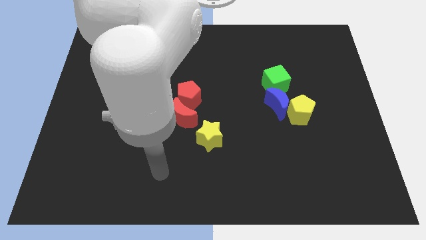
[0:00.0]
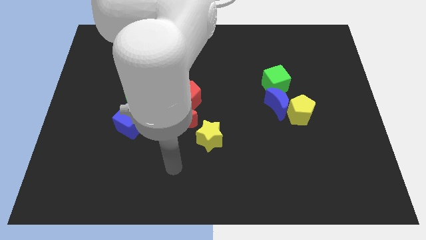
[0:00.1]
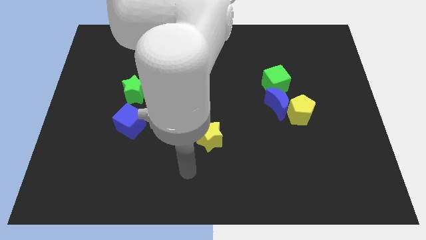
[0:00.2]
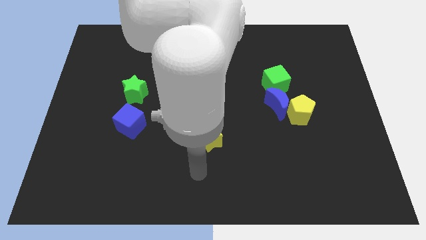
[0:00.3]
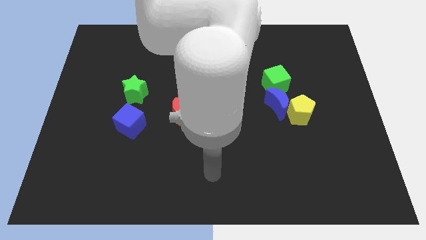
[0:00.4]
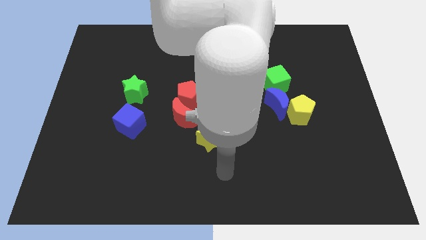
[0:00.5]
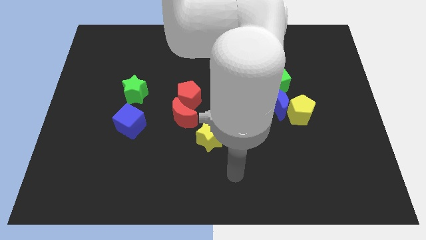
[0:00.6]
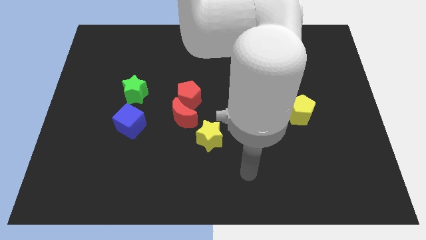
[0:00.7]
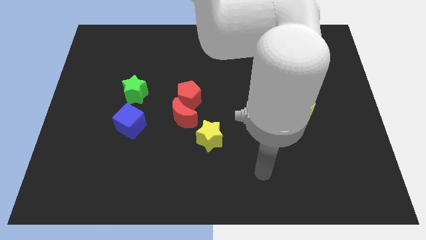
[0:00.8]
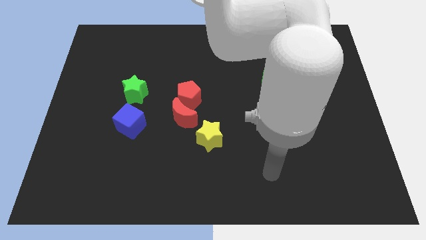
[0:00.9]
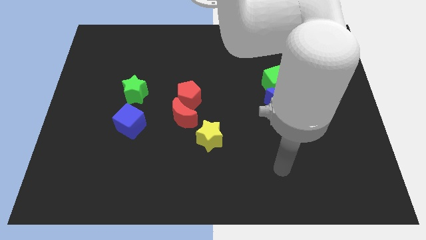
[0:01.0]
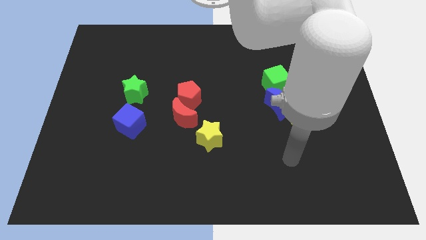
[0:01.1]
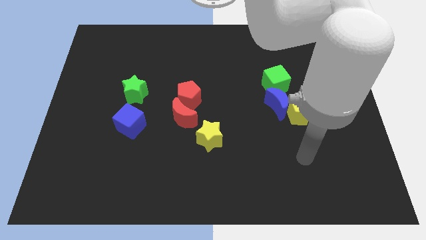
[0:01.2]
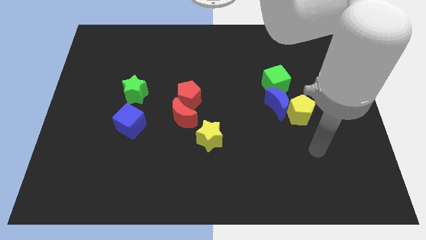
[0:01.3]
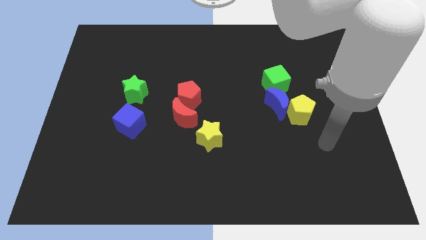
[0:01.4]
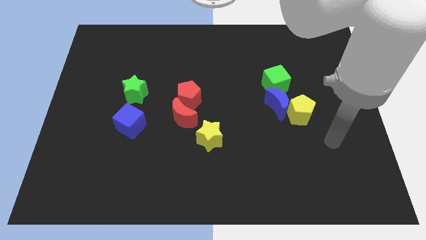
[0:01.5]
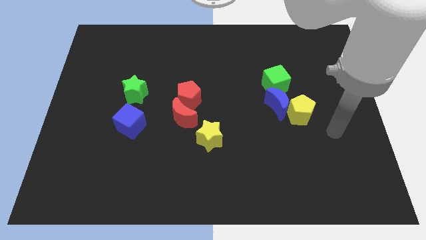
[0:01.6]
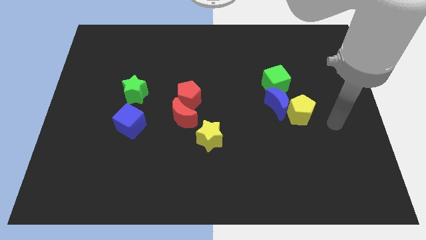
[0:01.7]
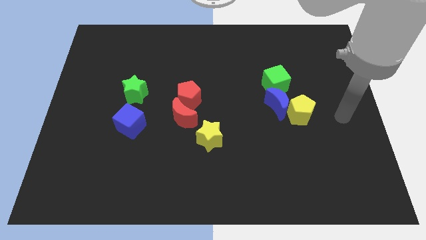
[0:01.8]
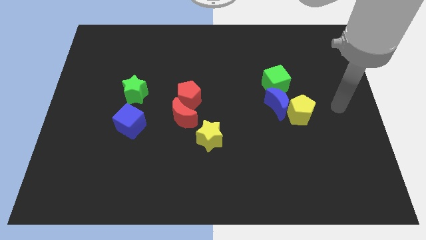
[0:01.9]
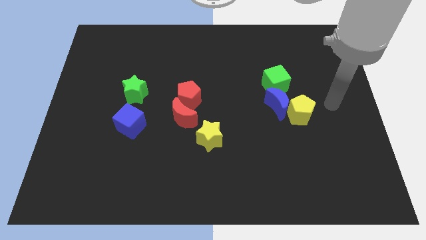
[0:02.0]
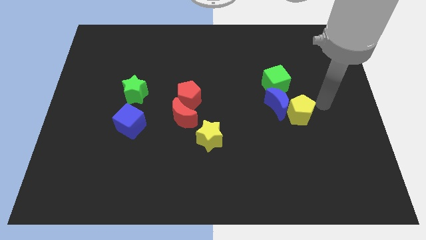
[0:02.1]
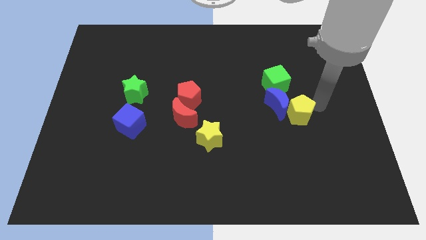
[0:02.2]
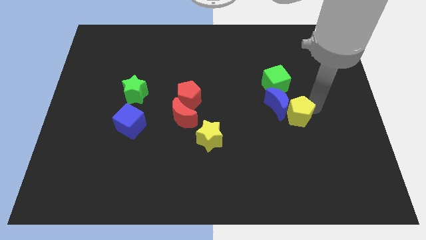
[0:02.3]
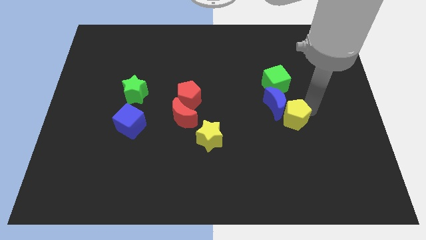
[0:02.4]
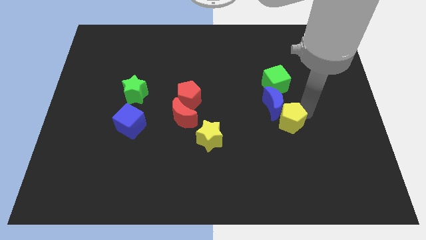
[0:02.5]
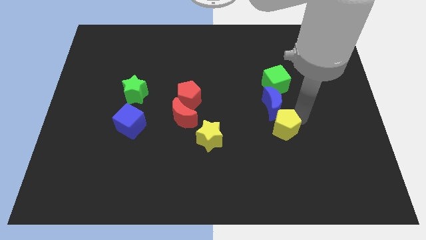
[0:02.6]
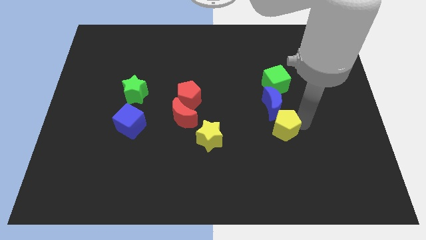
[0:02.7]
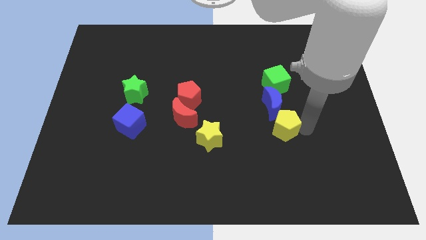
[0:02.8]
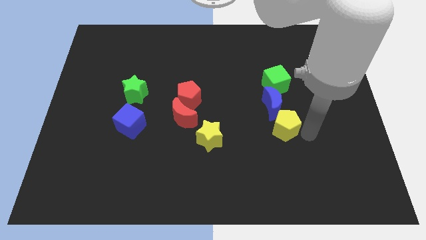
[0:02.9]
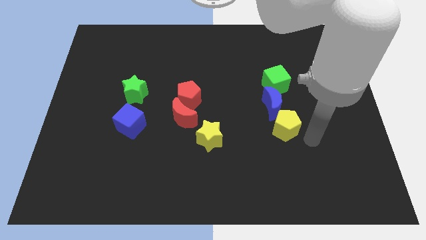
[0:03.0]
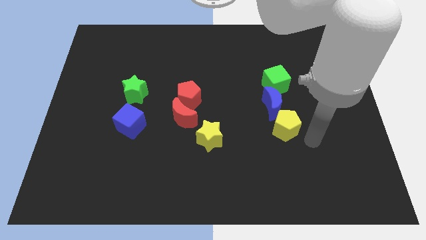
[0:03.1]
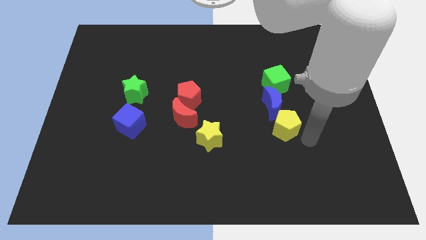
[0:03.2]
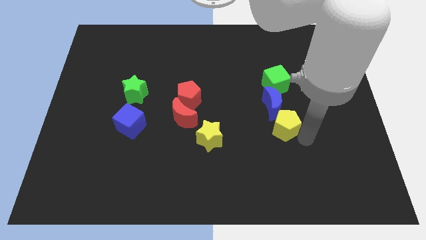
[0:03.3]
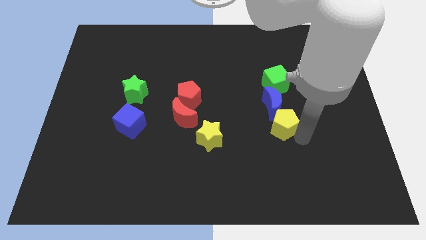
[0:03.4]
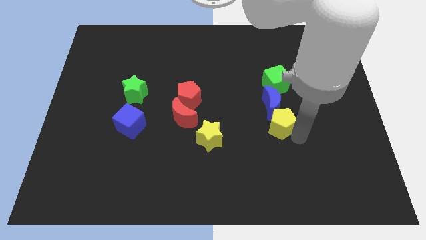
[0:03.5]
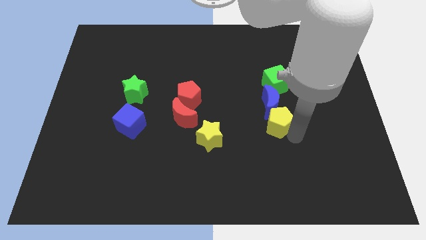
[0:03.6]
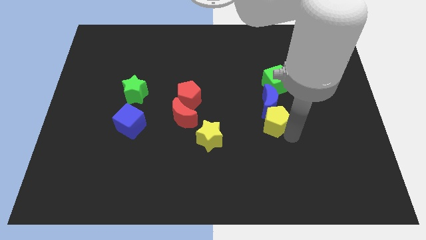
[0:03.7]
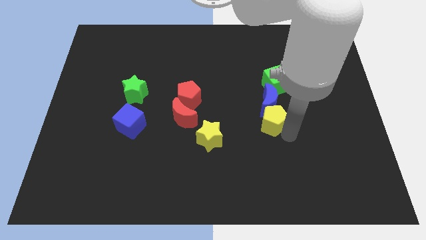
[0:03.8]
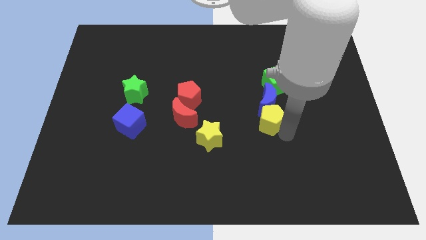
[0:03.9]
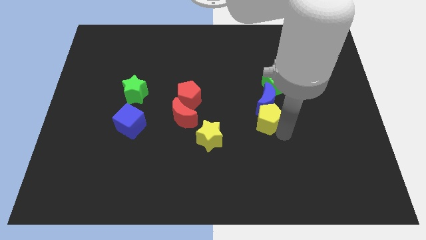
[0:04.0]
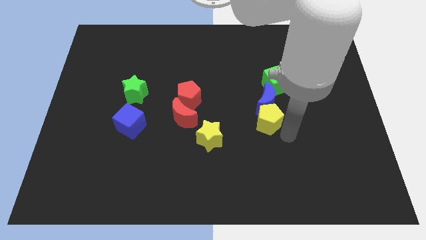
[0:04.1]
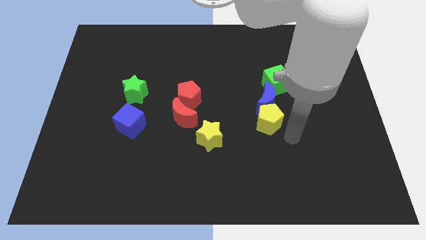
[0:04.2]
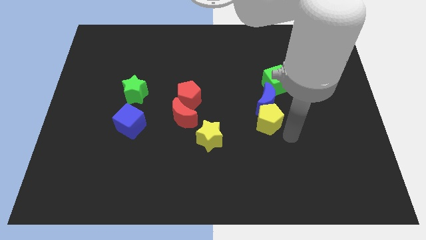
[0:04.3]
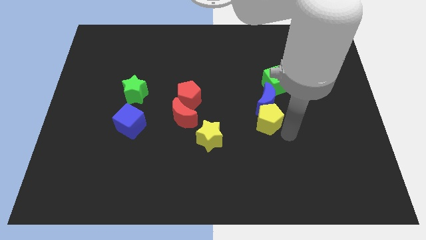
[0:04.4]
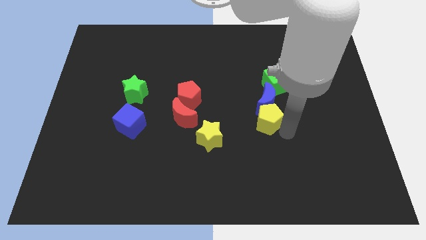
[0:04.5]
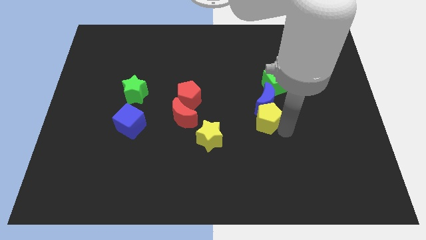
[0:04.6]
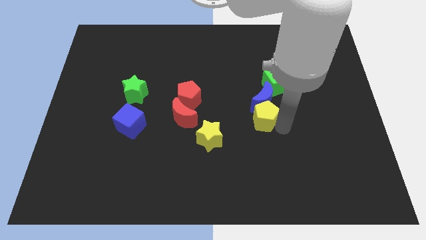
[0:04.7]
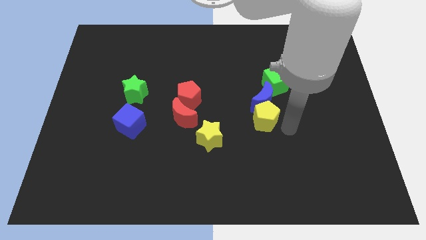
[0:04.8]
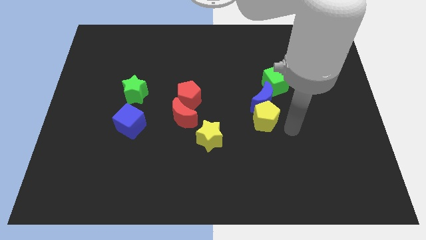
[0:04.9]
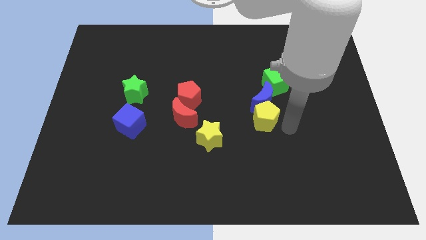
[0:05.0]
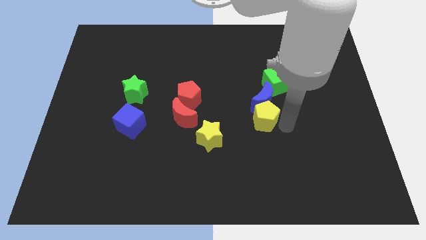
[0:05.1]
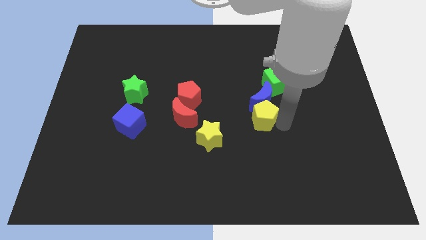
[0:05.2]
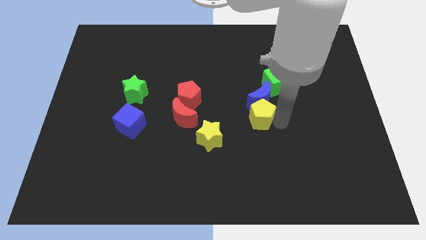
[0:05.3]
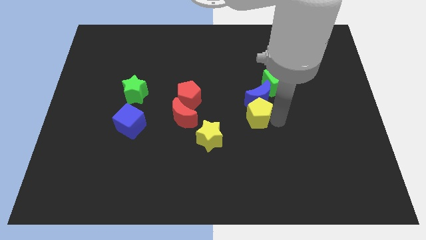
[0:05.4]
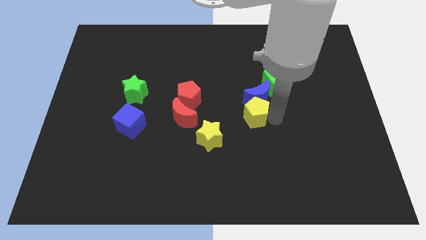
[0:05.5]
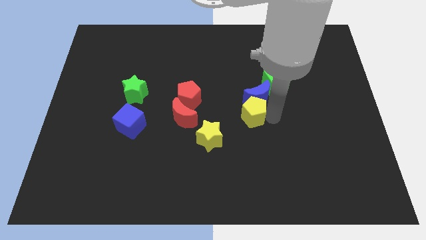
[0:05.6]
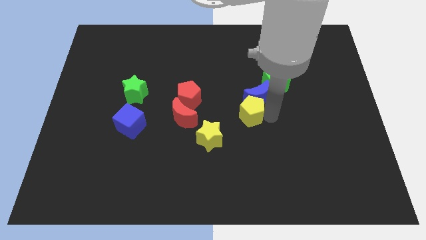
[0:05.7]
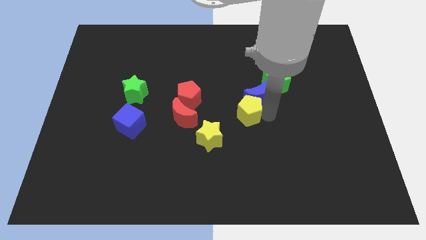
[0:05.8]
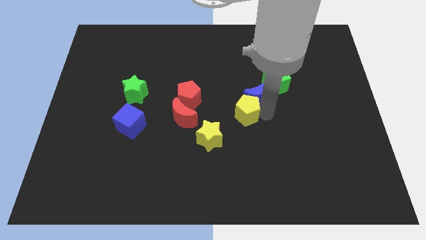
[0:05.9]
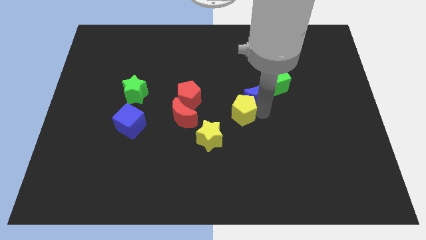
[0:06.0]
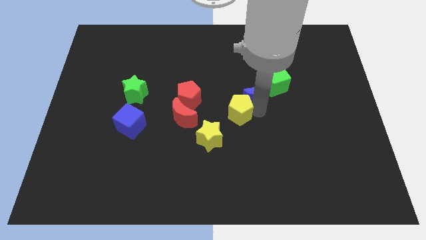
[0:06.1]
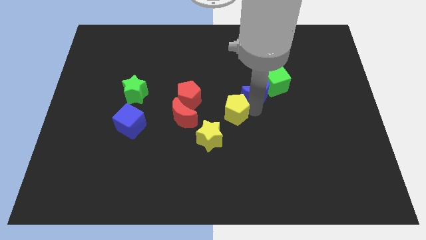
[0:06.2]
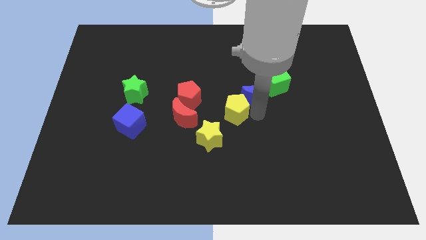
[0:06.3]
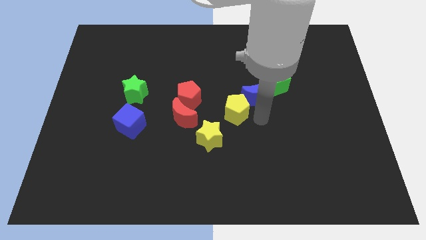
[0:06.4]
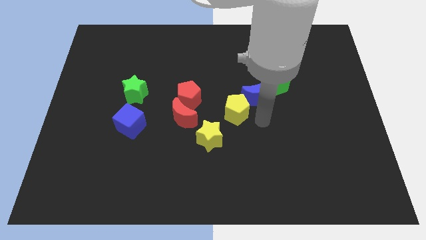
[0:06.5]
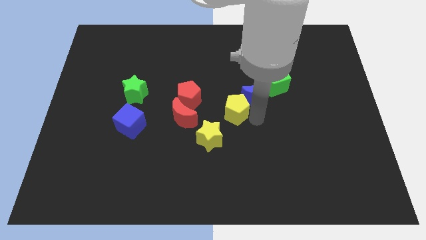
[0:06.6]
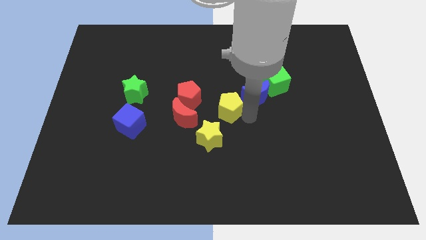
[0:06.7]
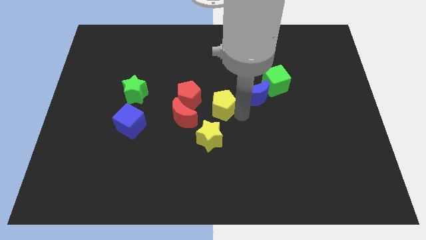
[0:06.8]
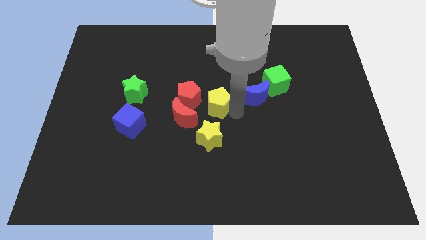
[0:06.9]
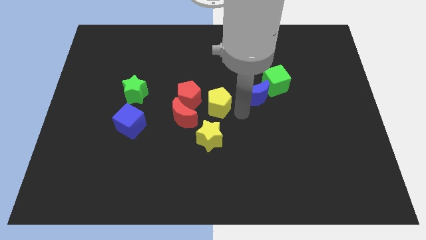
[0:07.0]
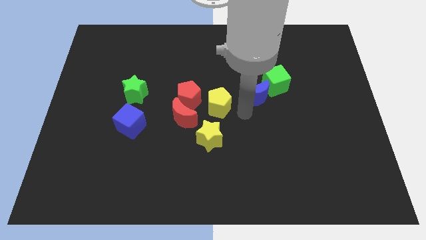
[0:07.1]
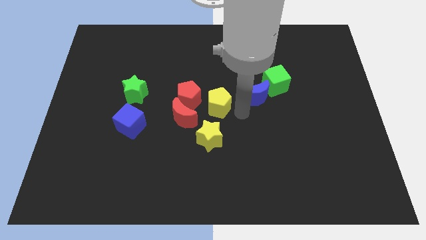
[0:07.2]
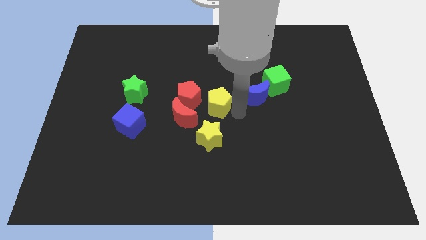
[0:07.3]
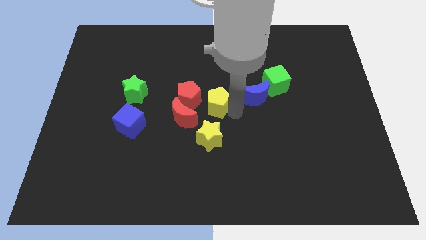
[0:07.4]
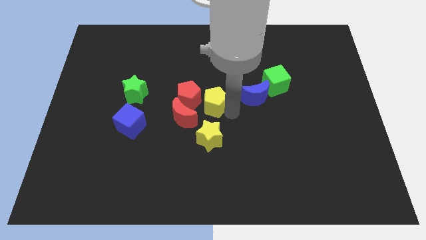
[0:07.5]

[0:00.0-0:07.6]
slide the yellow pentagon close to the red pentagon
